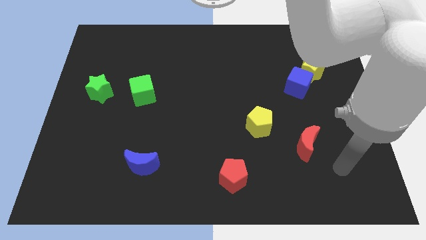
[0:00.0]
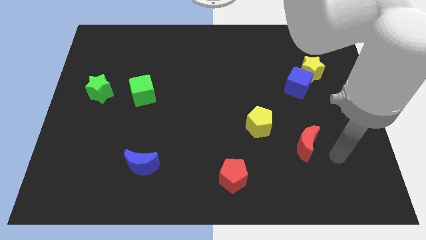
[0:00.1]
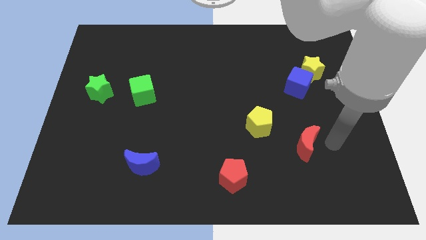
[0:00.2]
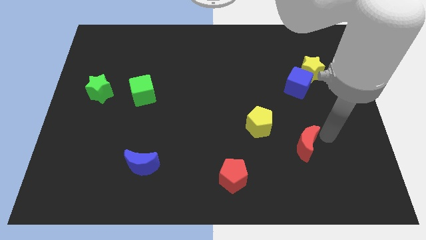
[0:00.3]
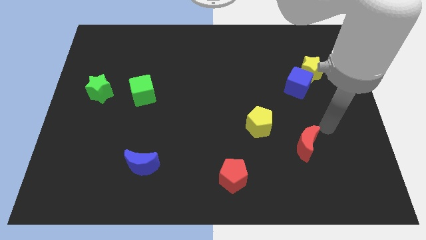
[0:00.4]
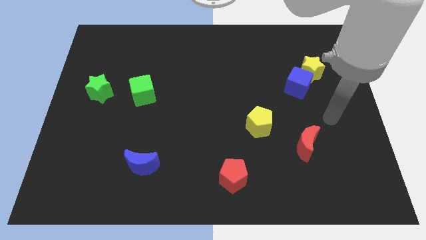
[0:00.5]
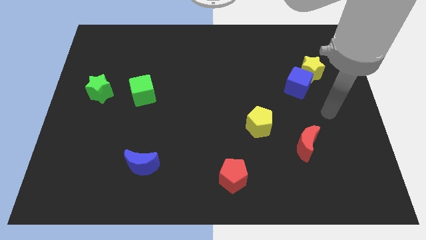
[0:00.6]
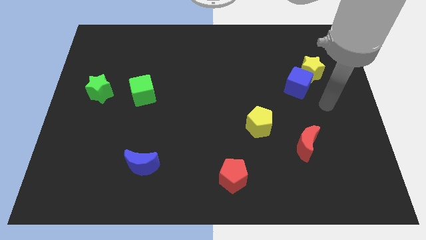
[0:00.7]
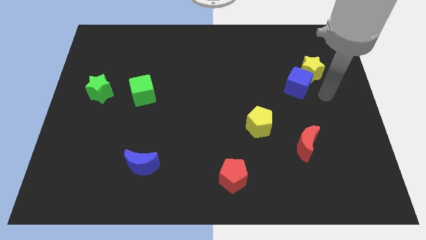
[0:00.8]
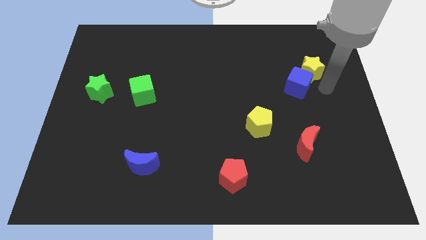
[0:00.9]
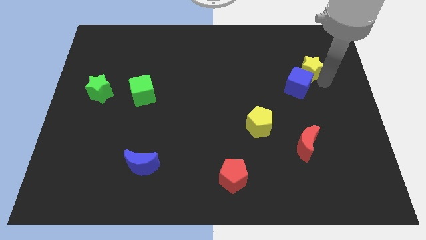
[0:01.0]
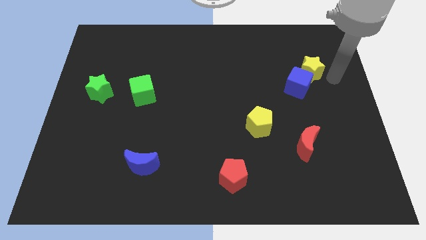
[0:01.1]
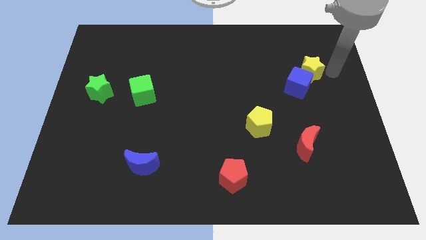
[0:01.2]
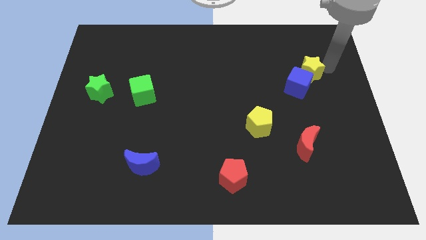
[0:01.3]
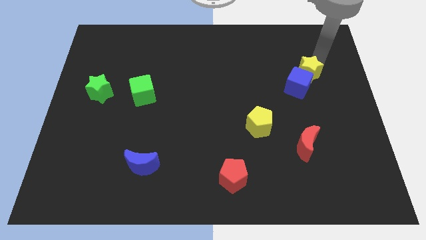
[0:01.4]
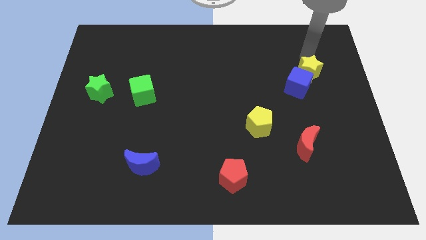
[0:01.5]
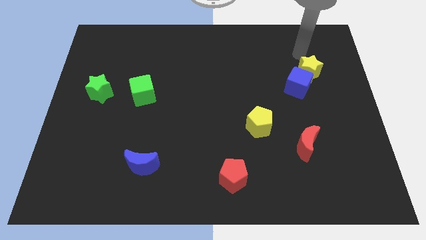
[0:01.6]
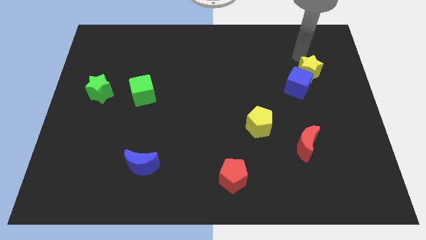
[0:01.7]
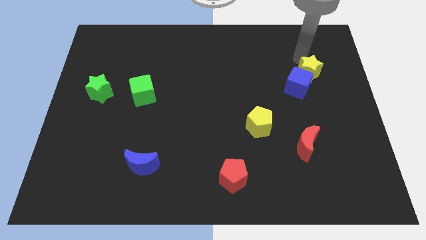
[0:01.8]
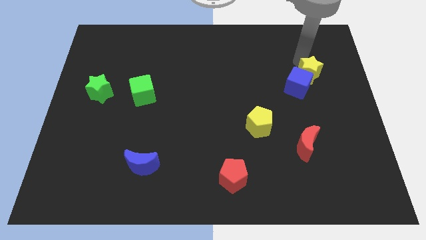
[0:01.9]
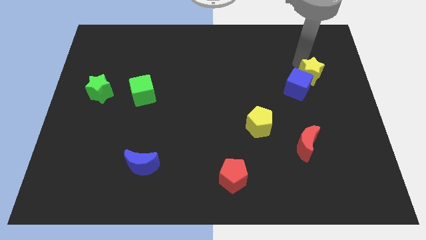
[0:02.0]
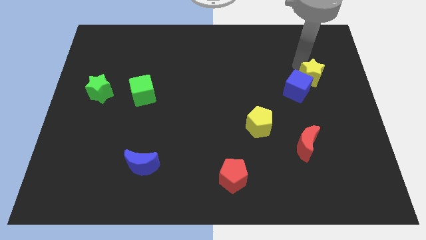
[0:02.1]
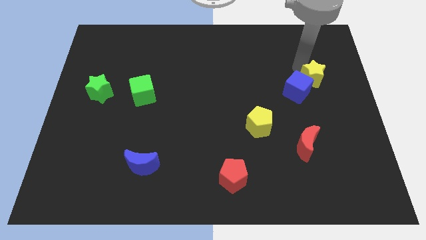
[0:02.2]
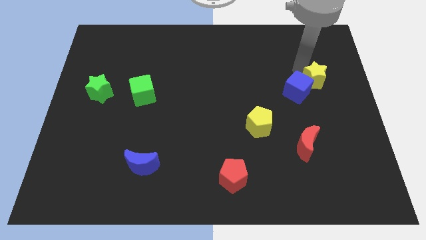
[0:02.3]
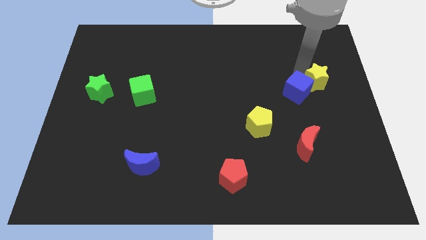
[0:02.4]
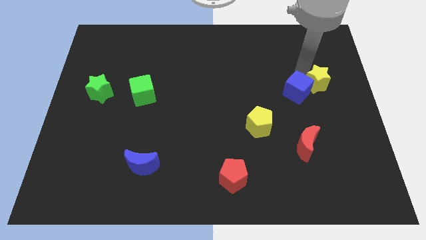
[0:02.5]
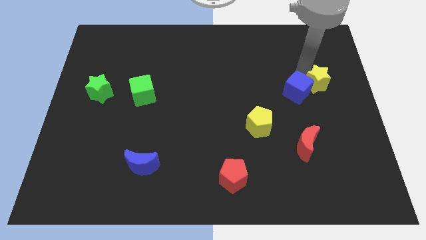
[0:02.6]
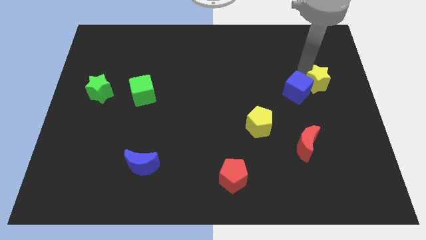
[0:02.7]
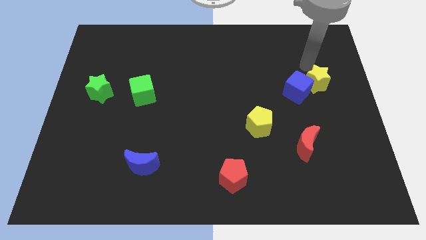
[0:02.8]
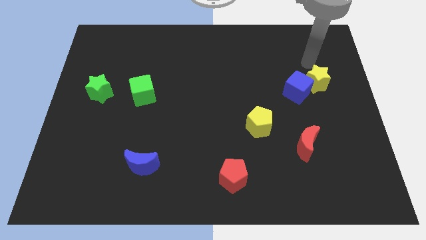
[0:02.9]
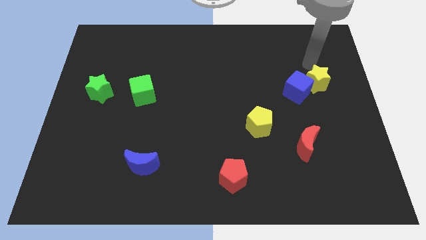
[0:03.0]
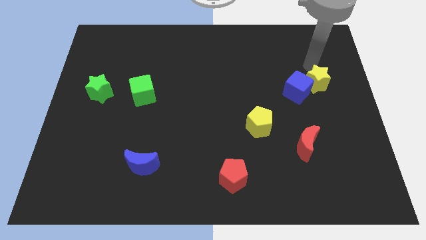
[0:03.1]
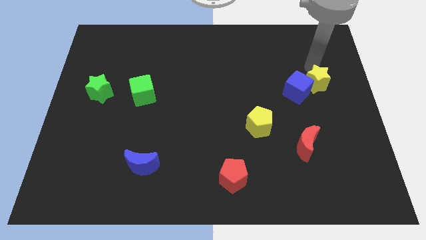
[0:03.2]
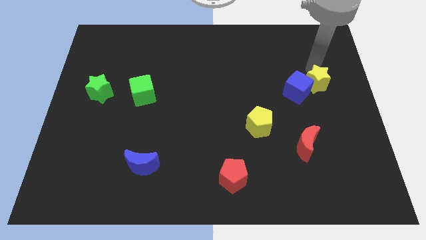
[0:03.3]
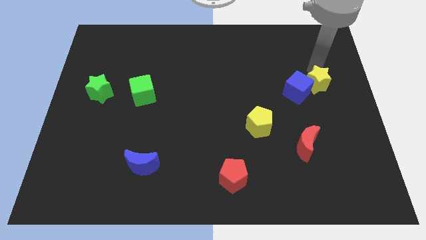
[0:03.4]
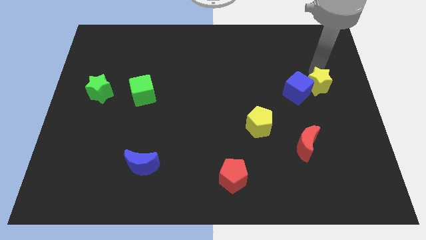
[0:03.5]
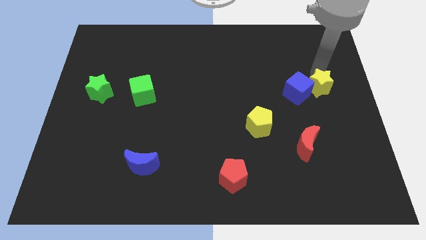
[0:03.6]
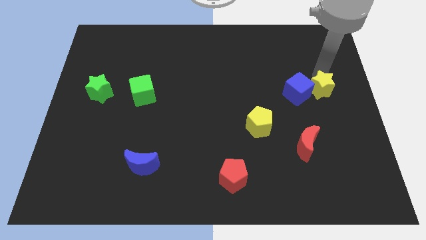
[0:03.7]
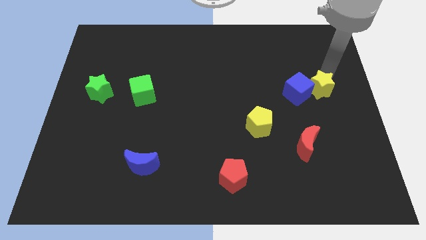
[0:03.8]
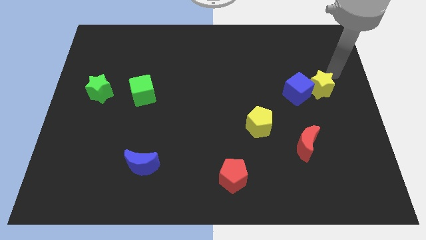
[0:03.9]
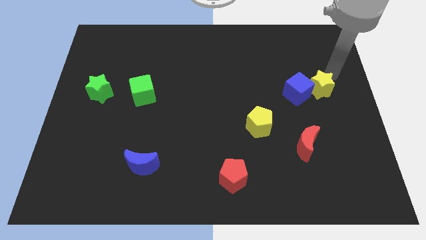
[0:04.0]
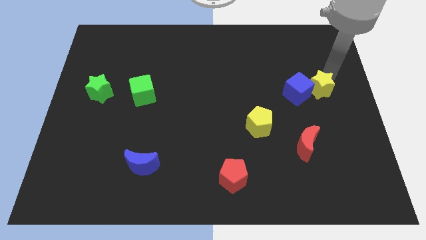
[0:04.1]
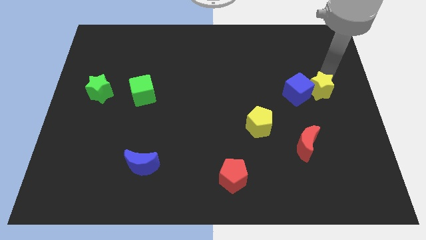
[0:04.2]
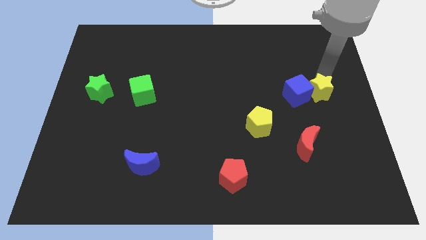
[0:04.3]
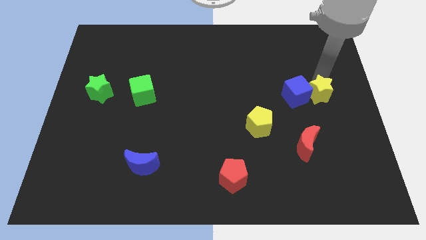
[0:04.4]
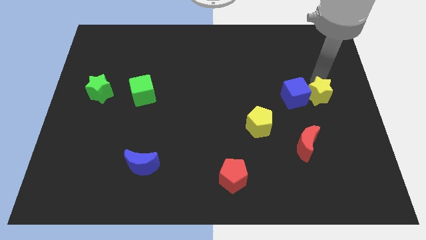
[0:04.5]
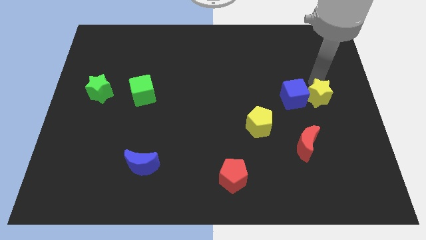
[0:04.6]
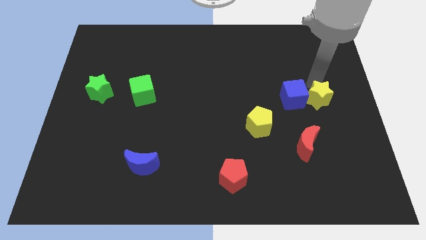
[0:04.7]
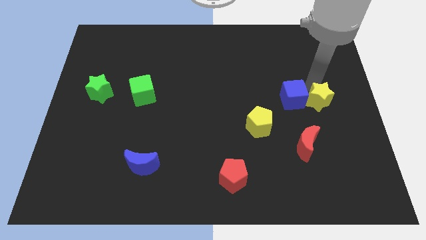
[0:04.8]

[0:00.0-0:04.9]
slide the yellow star above the red moon

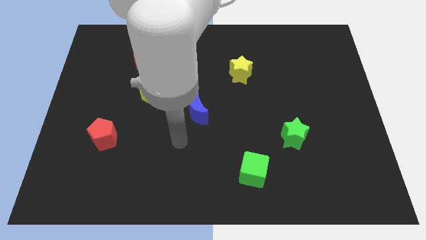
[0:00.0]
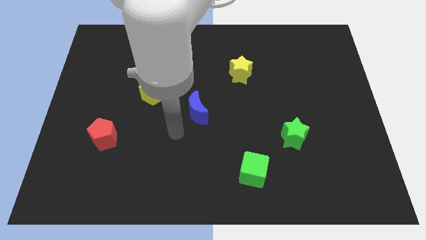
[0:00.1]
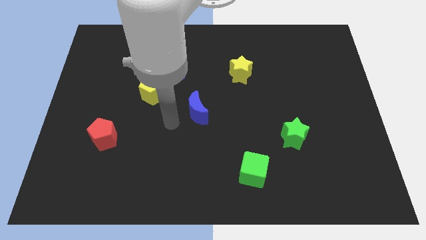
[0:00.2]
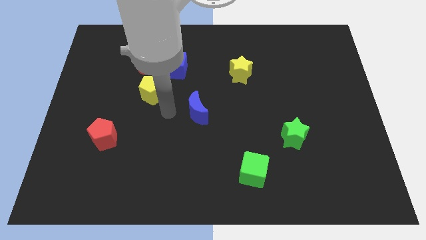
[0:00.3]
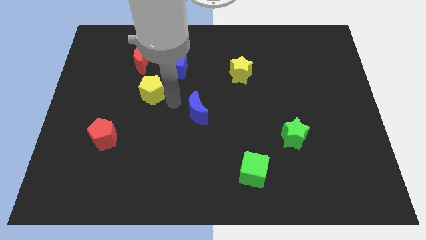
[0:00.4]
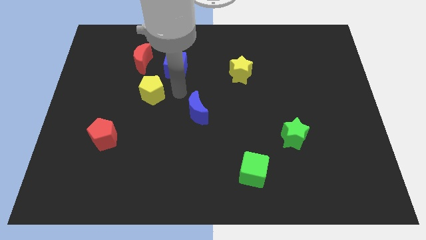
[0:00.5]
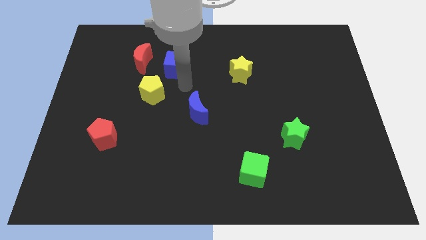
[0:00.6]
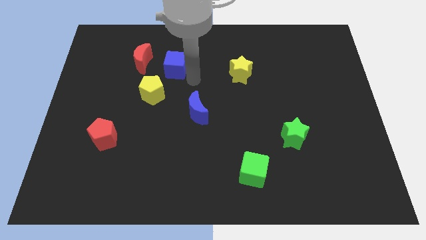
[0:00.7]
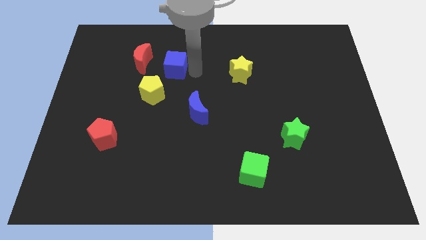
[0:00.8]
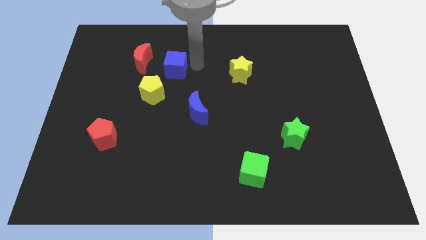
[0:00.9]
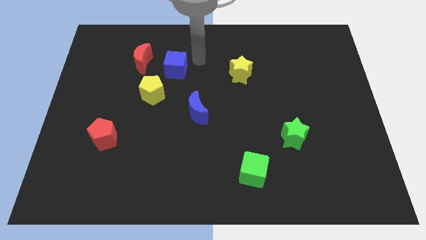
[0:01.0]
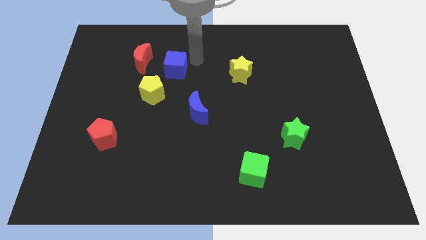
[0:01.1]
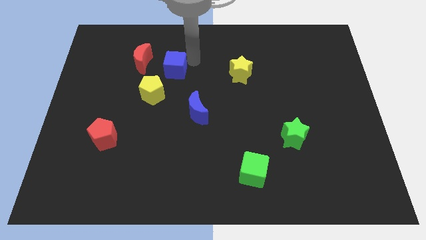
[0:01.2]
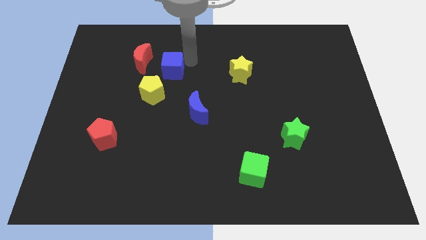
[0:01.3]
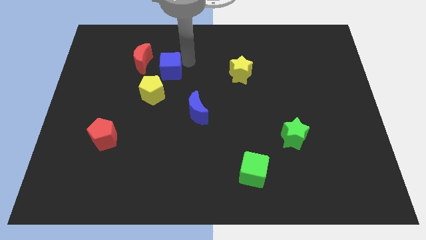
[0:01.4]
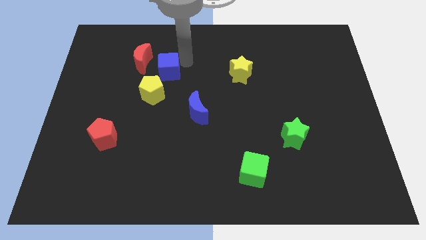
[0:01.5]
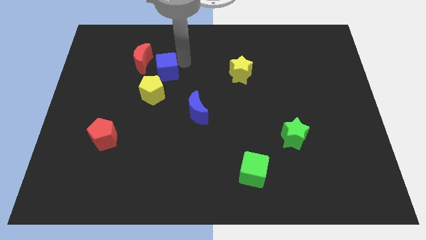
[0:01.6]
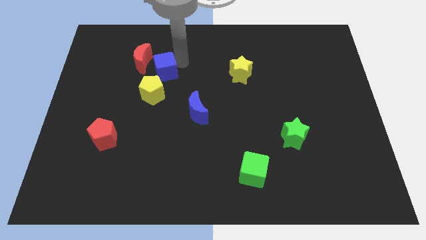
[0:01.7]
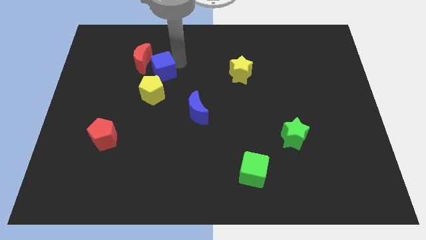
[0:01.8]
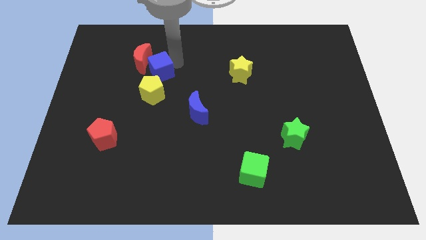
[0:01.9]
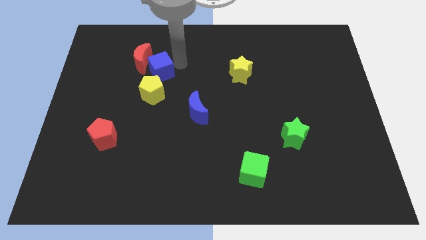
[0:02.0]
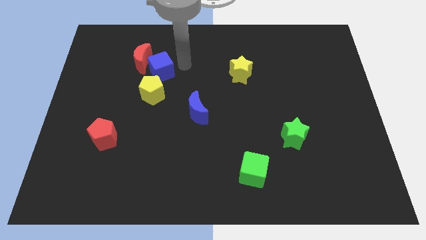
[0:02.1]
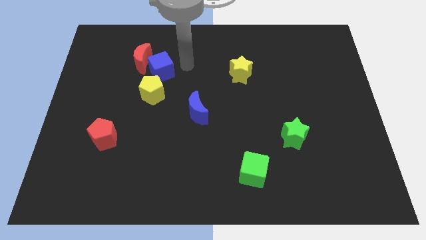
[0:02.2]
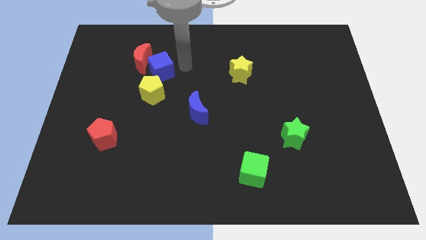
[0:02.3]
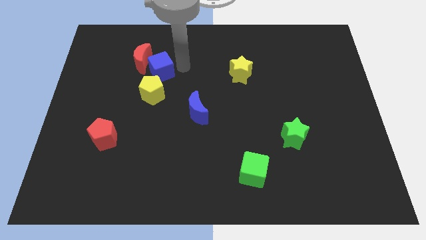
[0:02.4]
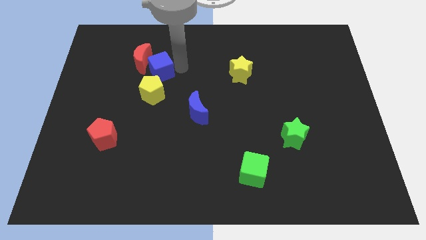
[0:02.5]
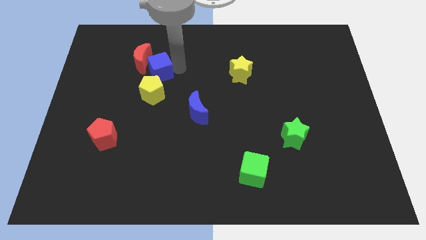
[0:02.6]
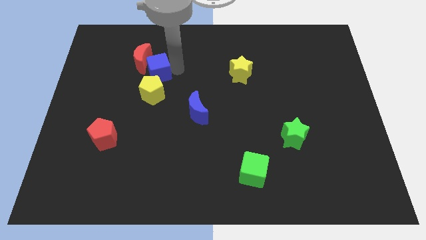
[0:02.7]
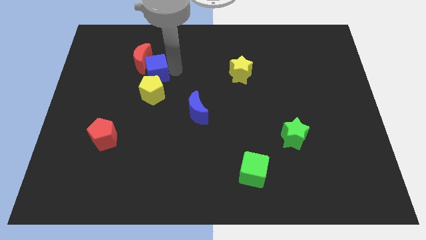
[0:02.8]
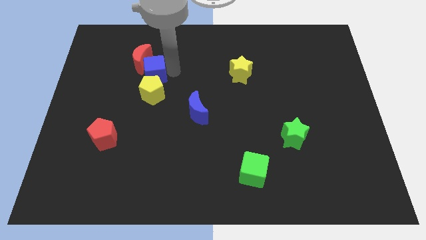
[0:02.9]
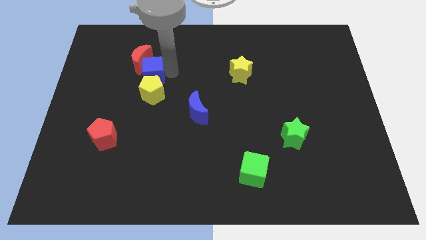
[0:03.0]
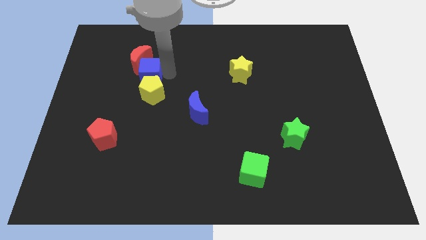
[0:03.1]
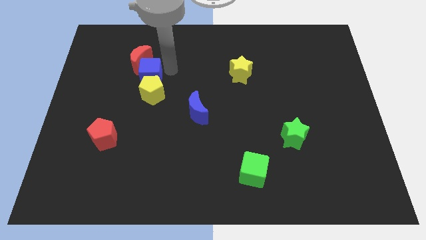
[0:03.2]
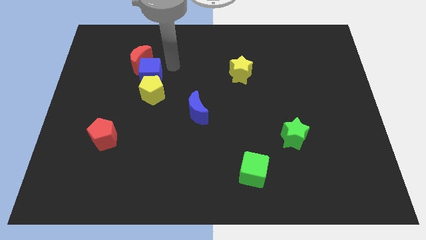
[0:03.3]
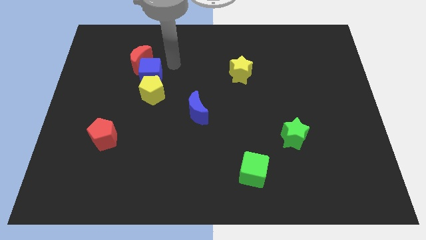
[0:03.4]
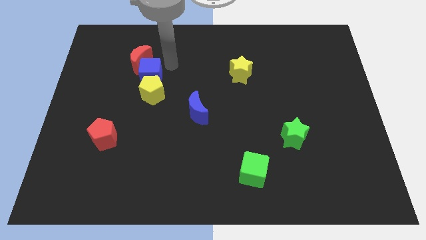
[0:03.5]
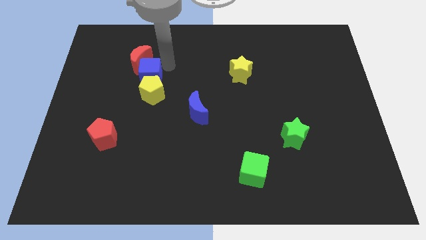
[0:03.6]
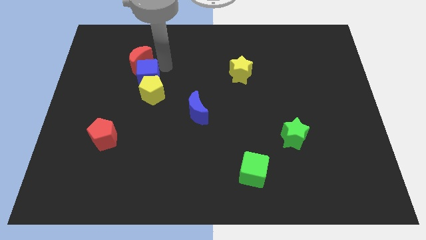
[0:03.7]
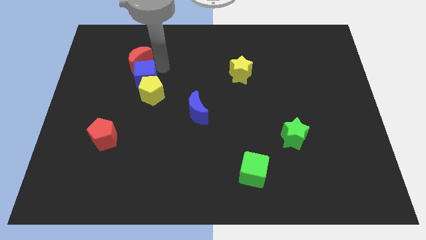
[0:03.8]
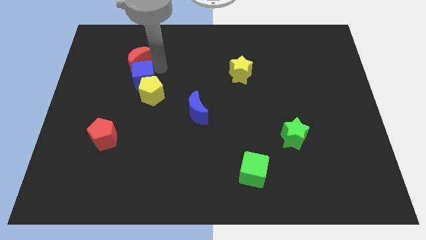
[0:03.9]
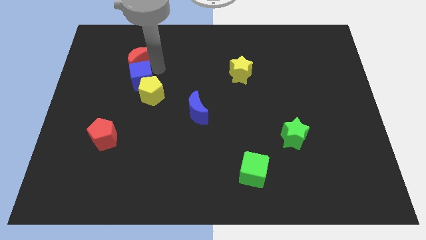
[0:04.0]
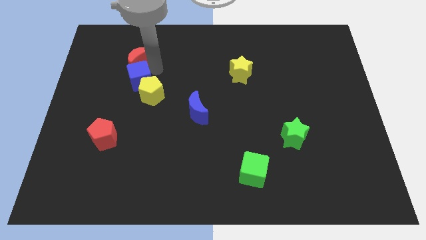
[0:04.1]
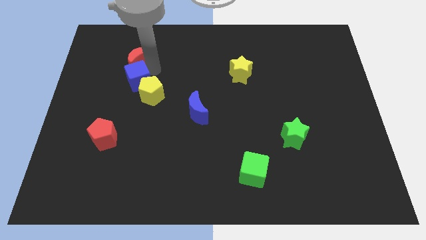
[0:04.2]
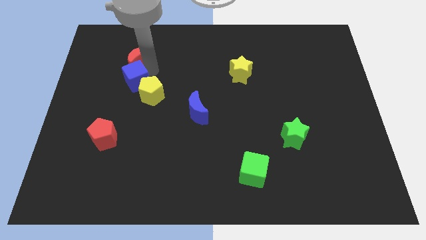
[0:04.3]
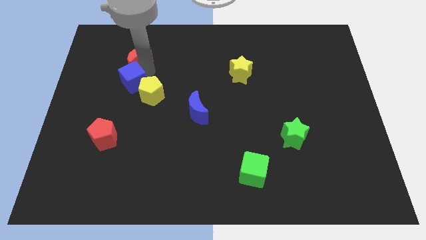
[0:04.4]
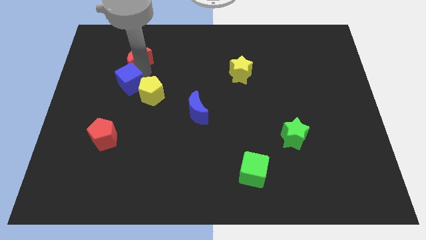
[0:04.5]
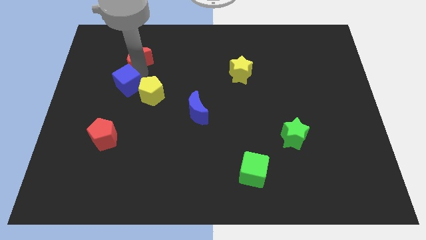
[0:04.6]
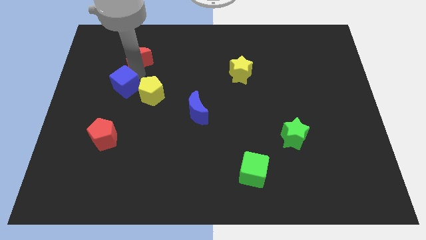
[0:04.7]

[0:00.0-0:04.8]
slide the blue cube to the top of the red pentagon
